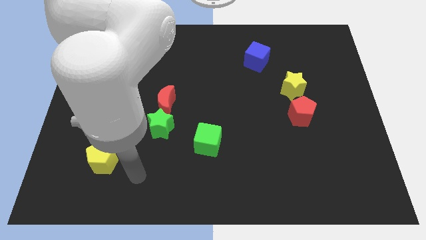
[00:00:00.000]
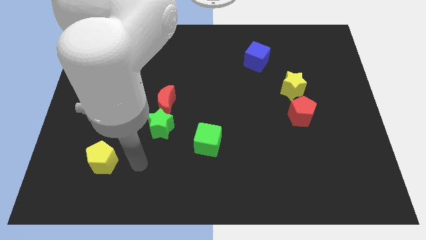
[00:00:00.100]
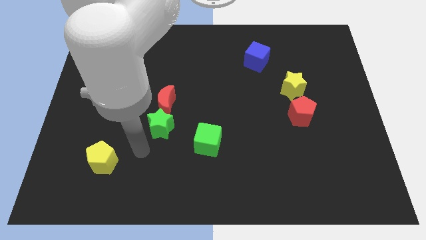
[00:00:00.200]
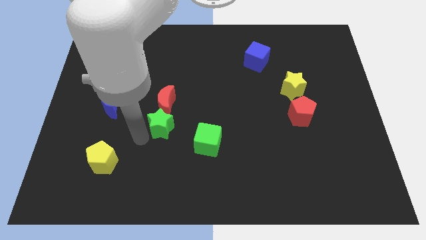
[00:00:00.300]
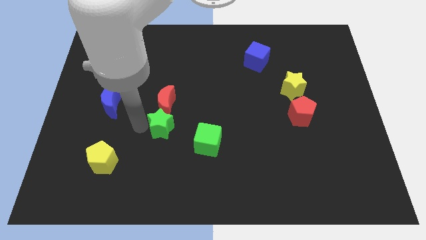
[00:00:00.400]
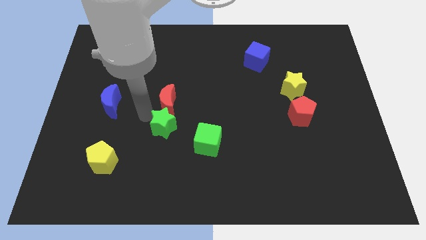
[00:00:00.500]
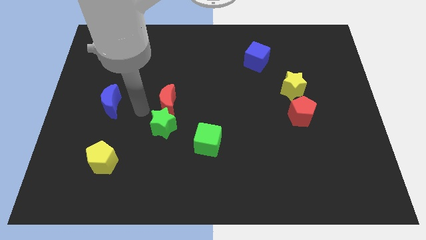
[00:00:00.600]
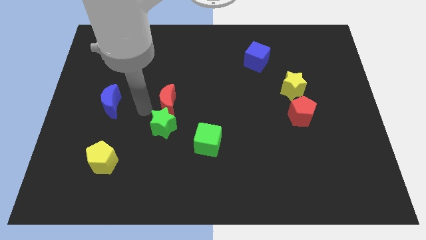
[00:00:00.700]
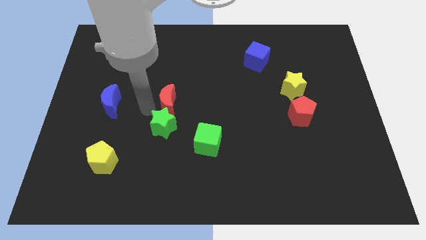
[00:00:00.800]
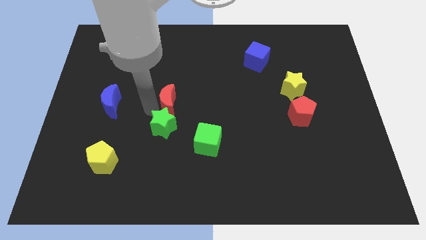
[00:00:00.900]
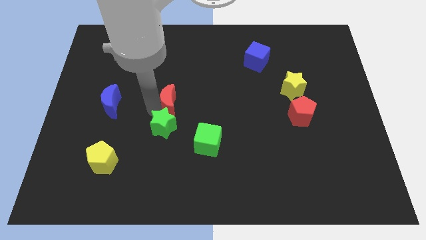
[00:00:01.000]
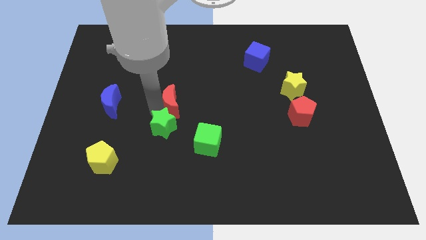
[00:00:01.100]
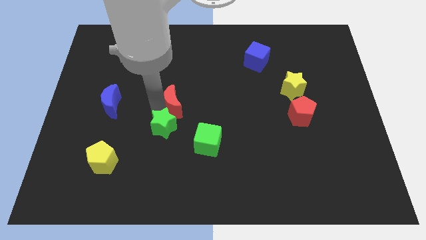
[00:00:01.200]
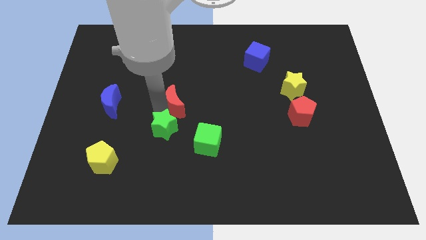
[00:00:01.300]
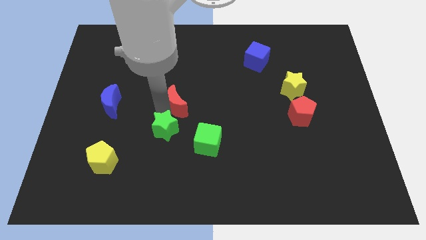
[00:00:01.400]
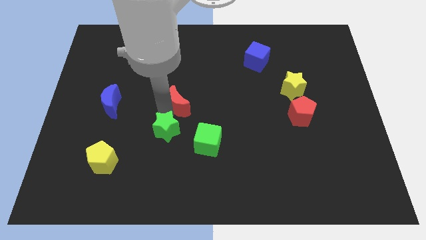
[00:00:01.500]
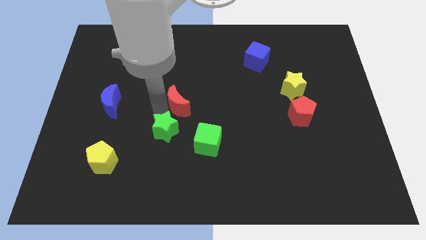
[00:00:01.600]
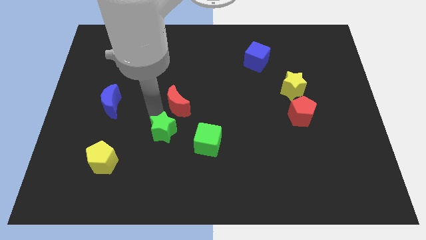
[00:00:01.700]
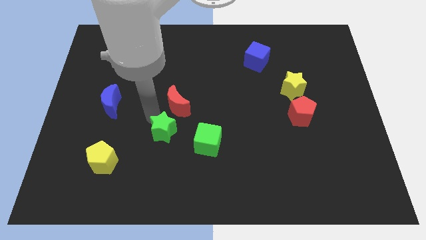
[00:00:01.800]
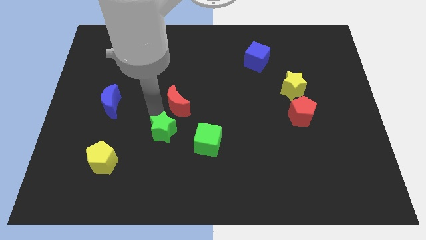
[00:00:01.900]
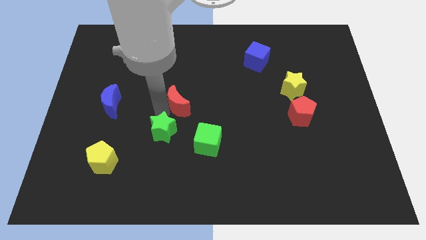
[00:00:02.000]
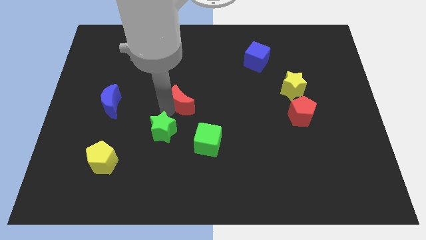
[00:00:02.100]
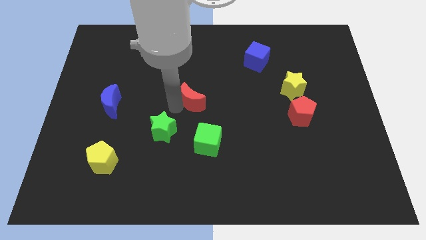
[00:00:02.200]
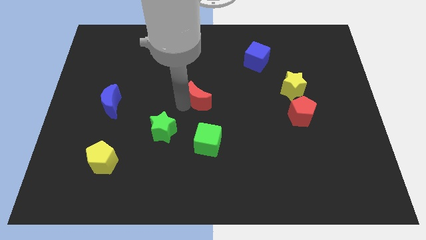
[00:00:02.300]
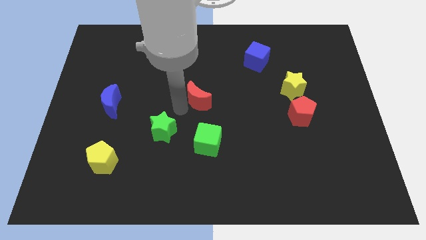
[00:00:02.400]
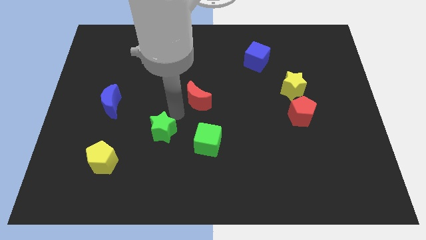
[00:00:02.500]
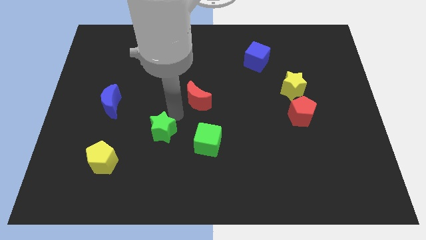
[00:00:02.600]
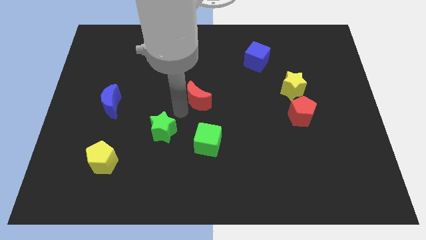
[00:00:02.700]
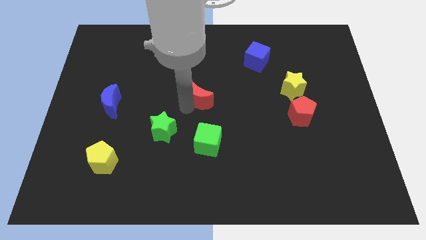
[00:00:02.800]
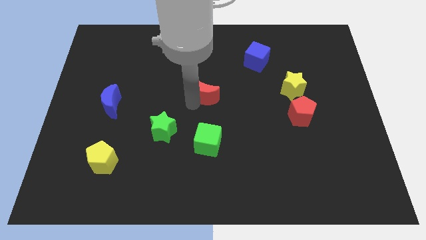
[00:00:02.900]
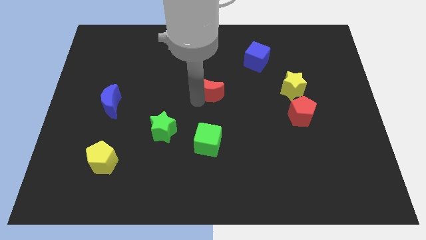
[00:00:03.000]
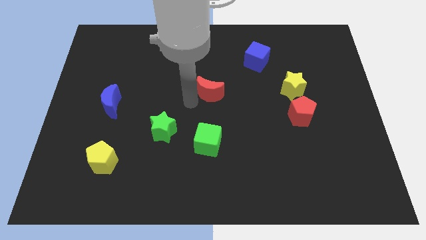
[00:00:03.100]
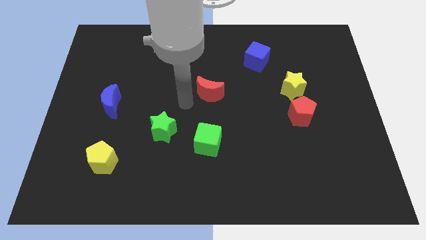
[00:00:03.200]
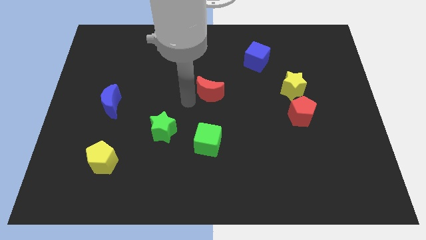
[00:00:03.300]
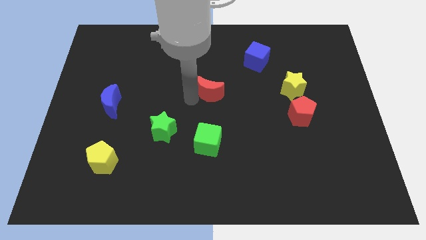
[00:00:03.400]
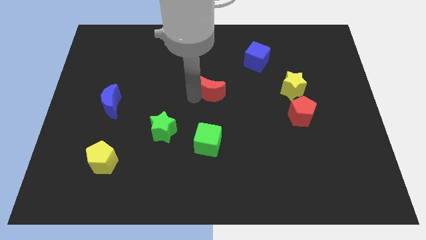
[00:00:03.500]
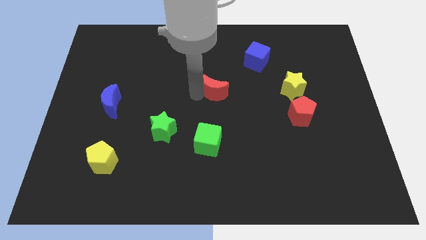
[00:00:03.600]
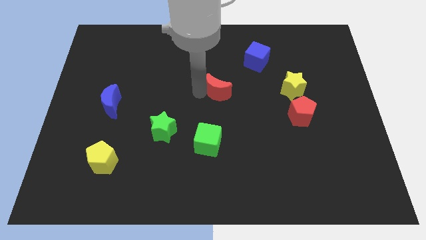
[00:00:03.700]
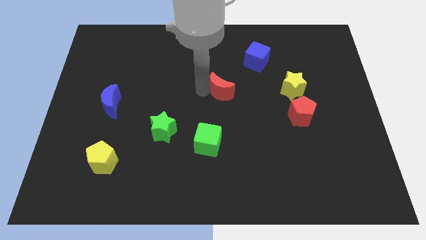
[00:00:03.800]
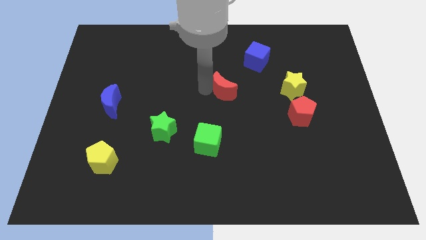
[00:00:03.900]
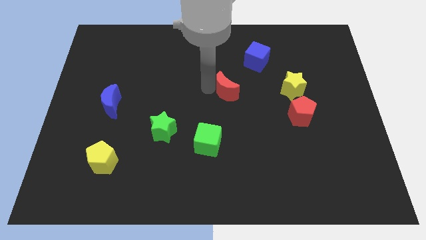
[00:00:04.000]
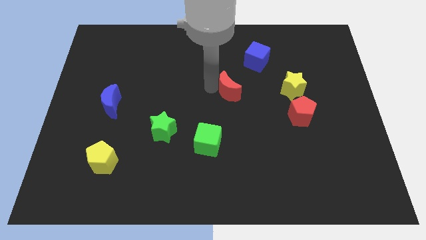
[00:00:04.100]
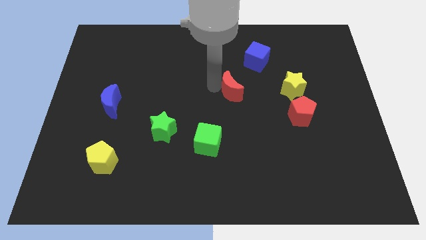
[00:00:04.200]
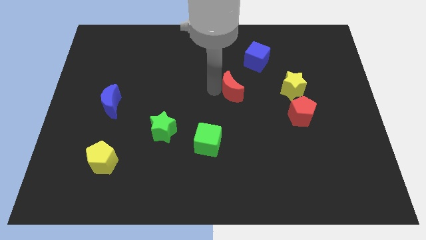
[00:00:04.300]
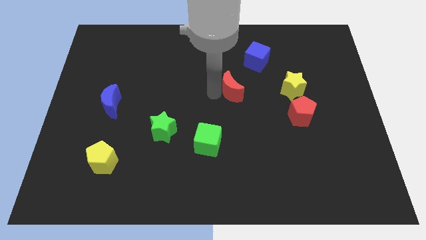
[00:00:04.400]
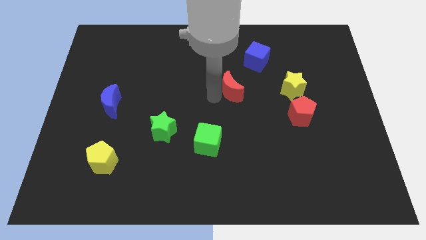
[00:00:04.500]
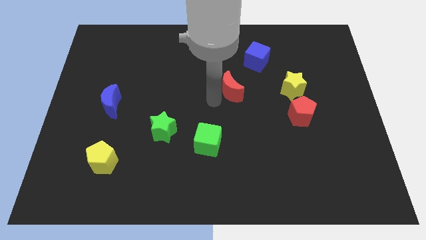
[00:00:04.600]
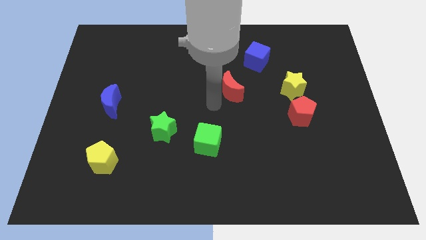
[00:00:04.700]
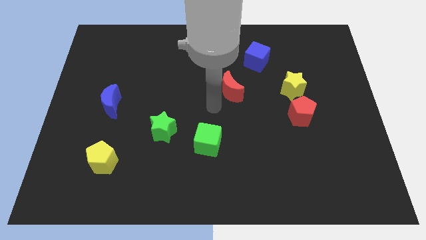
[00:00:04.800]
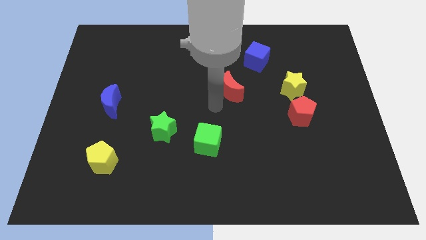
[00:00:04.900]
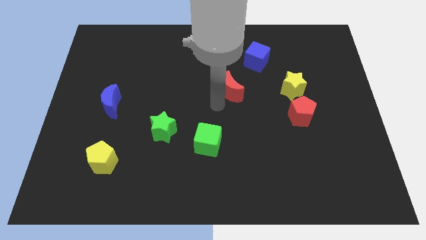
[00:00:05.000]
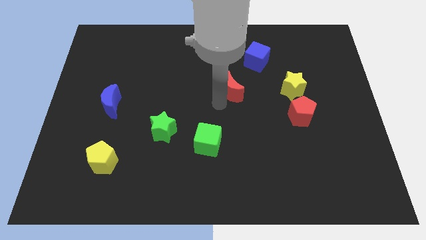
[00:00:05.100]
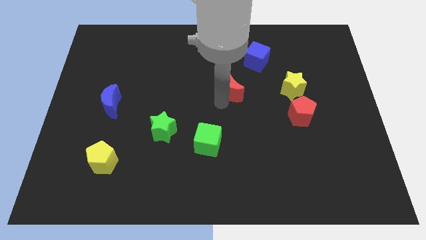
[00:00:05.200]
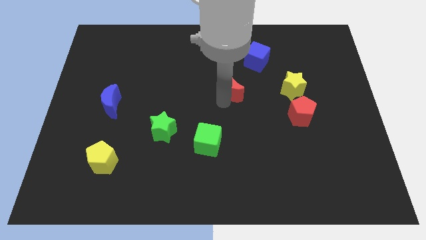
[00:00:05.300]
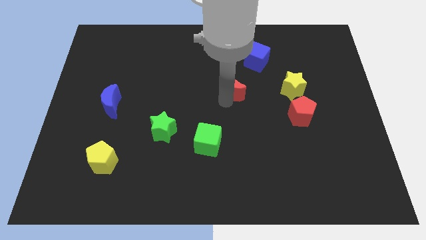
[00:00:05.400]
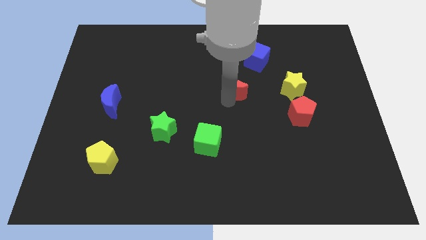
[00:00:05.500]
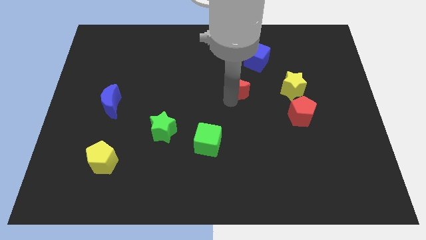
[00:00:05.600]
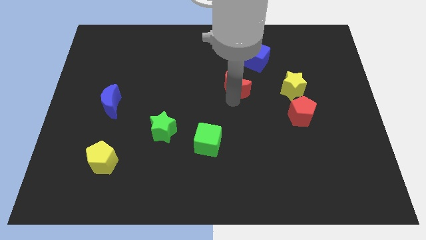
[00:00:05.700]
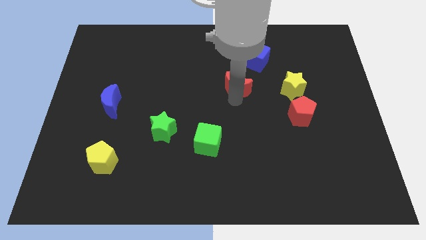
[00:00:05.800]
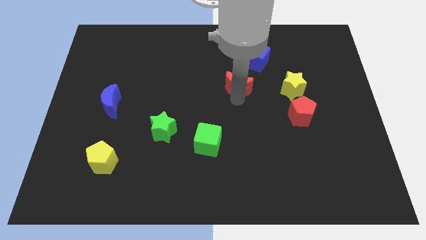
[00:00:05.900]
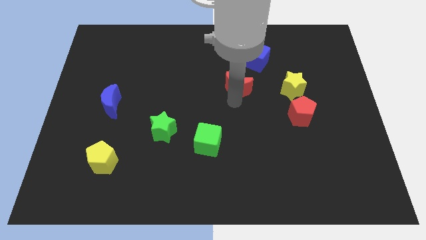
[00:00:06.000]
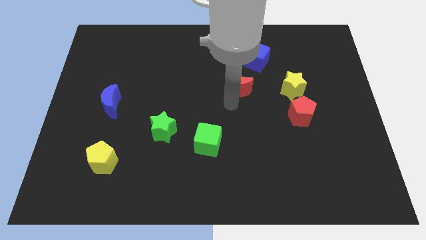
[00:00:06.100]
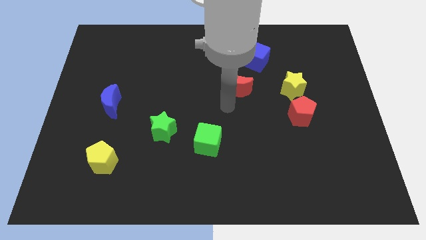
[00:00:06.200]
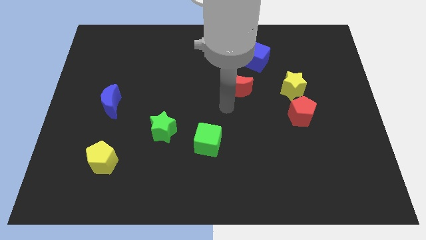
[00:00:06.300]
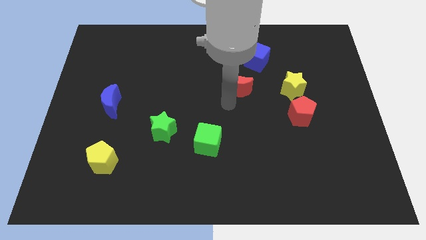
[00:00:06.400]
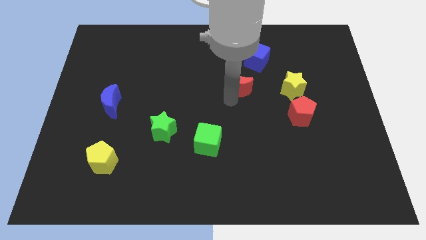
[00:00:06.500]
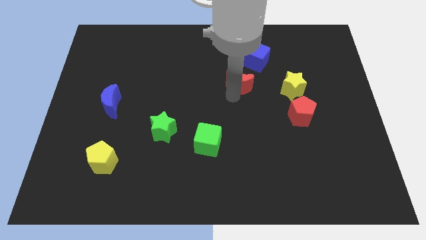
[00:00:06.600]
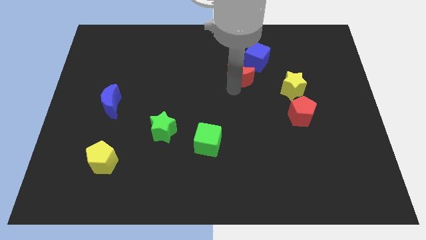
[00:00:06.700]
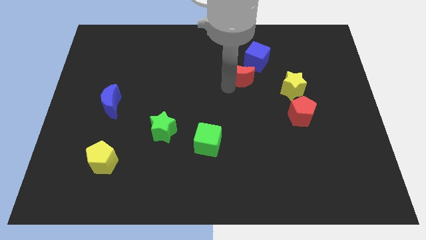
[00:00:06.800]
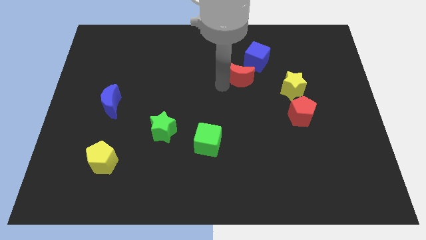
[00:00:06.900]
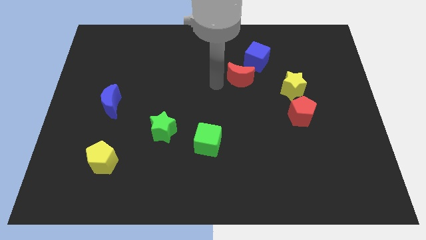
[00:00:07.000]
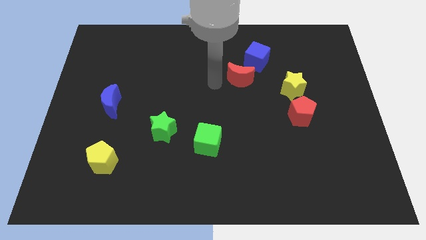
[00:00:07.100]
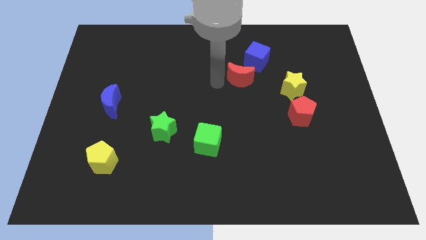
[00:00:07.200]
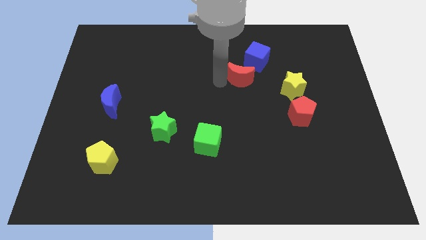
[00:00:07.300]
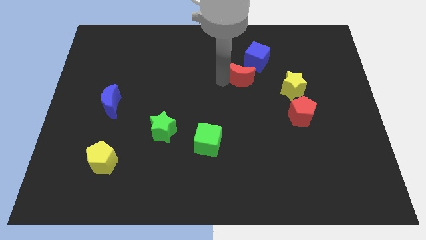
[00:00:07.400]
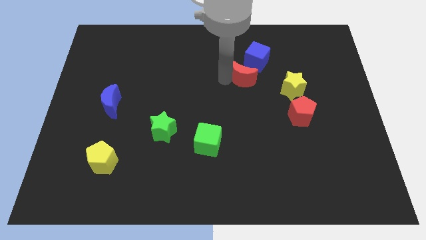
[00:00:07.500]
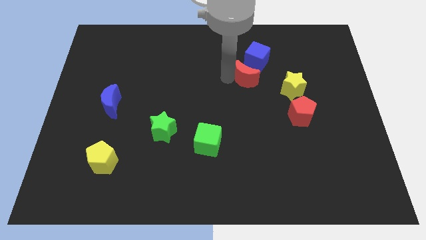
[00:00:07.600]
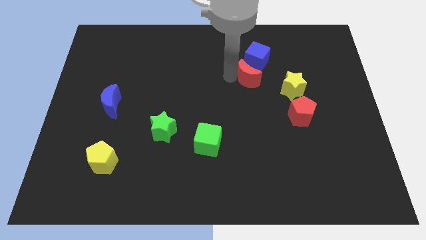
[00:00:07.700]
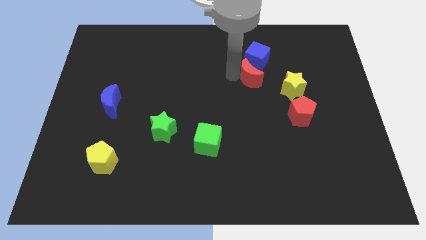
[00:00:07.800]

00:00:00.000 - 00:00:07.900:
put the red moon to the top left side of the yellow star

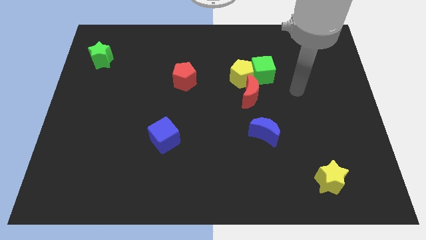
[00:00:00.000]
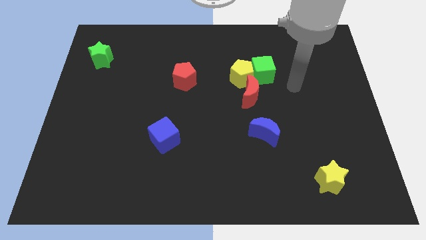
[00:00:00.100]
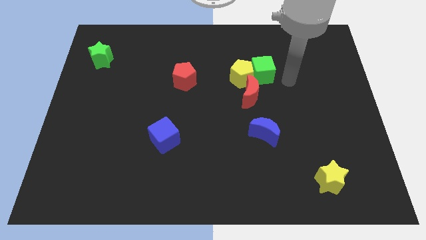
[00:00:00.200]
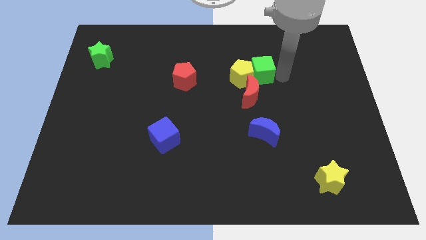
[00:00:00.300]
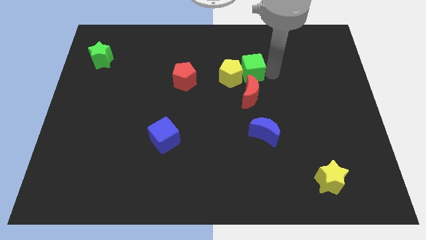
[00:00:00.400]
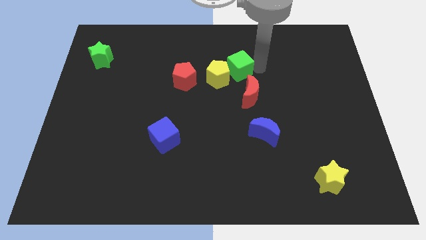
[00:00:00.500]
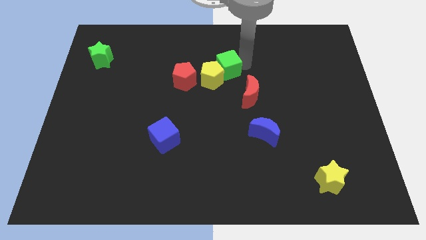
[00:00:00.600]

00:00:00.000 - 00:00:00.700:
move the yellow pentagon to the bottom right side of the red pentagon
